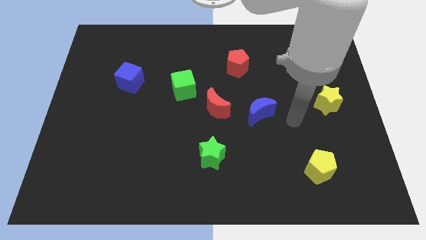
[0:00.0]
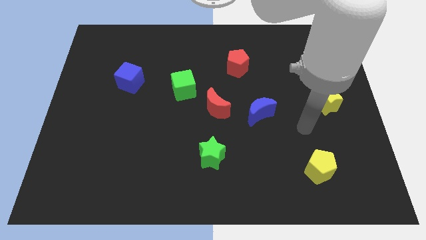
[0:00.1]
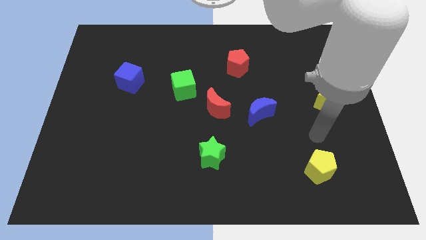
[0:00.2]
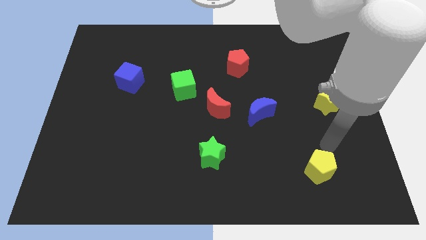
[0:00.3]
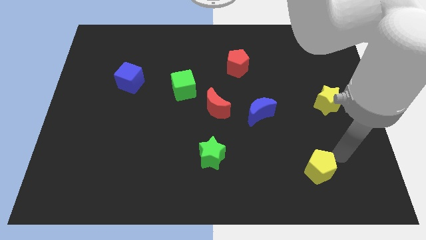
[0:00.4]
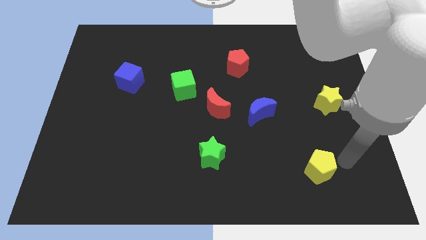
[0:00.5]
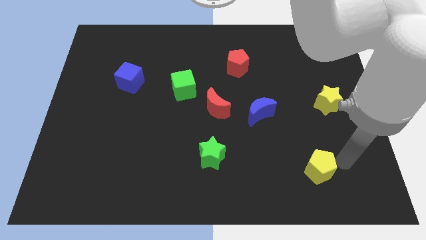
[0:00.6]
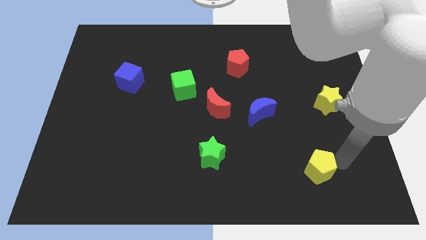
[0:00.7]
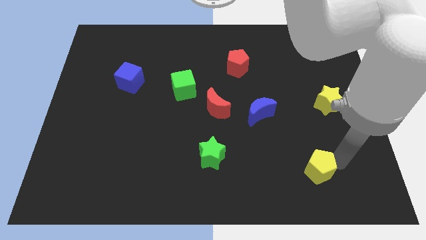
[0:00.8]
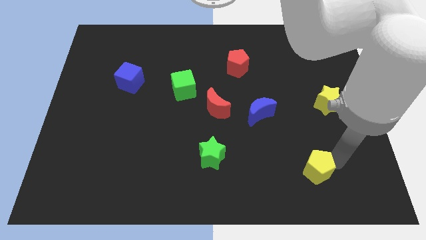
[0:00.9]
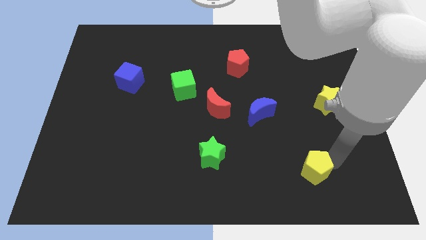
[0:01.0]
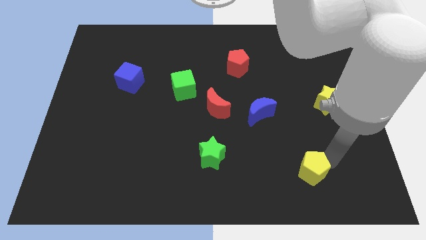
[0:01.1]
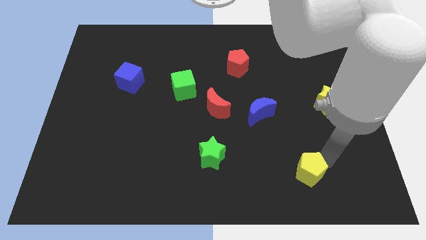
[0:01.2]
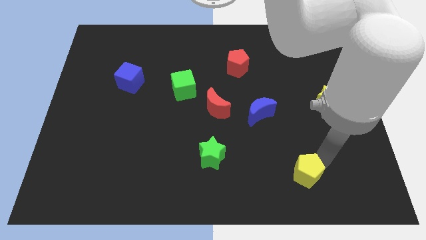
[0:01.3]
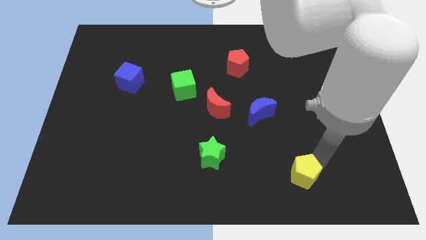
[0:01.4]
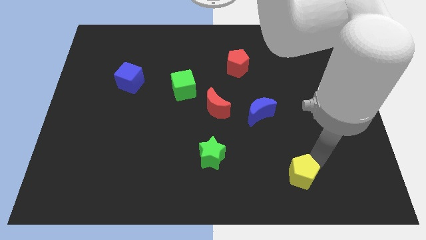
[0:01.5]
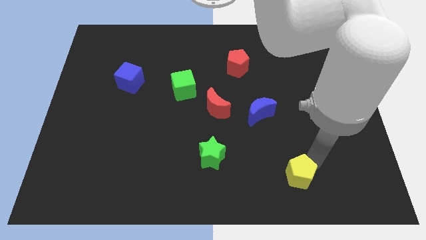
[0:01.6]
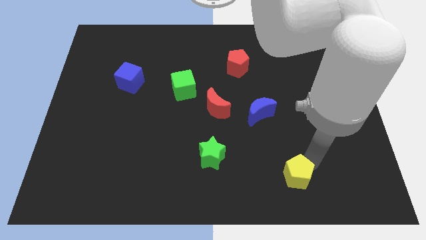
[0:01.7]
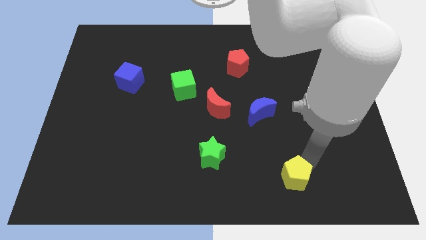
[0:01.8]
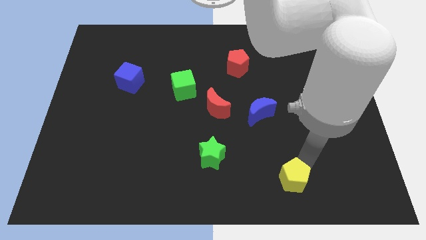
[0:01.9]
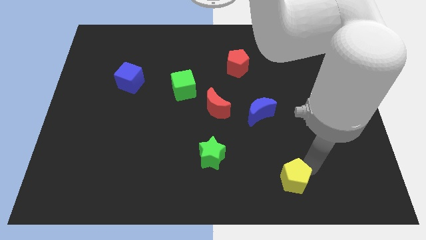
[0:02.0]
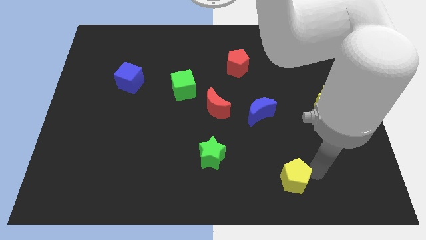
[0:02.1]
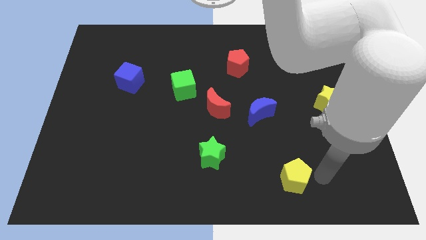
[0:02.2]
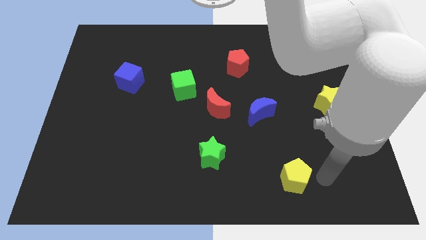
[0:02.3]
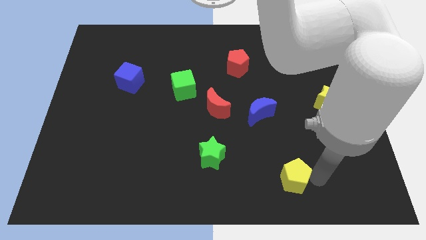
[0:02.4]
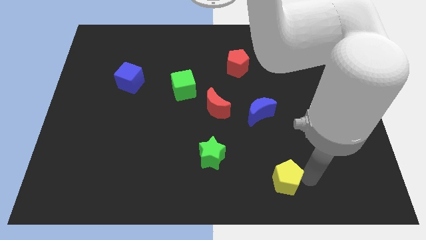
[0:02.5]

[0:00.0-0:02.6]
slide the yellow pentagon to the left slightly

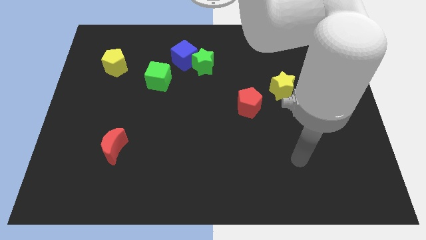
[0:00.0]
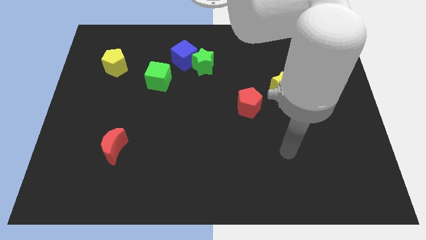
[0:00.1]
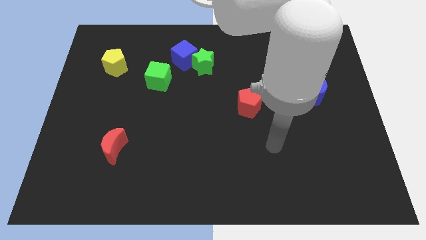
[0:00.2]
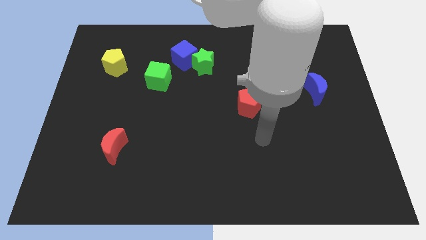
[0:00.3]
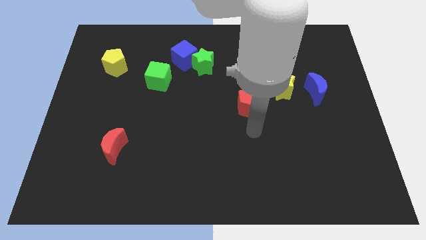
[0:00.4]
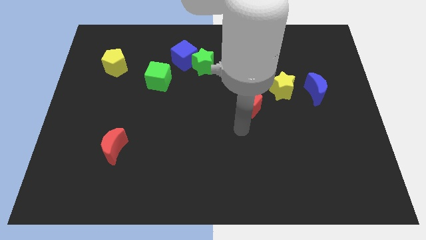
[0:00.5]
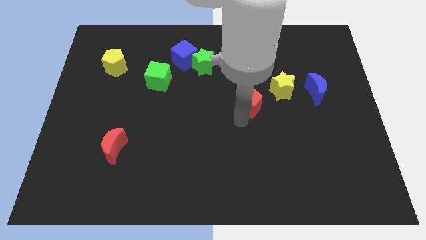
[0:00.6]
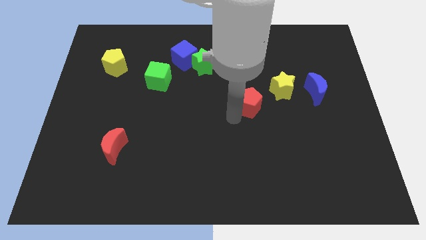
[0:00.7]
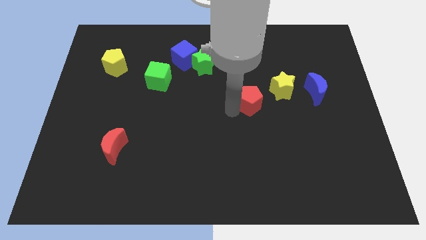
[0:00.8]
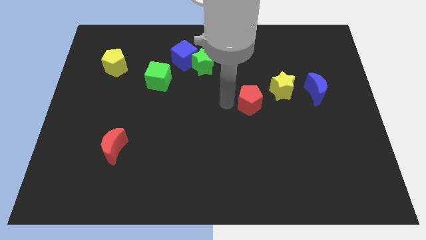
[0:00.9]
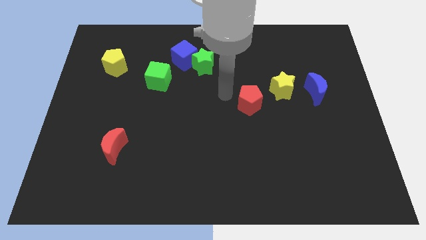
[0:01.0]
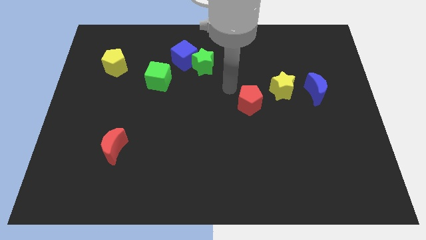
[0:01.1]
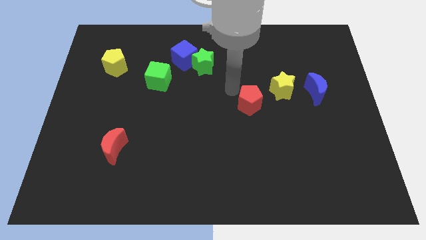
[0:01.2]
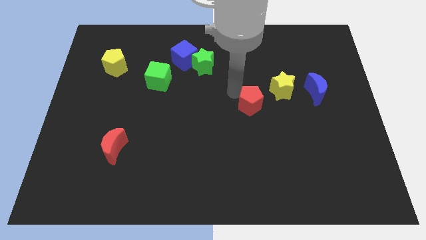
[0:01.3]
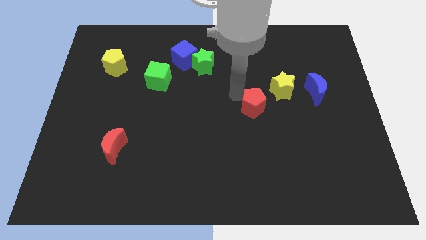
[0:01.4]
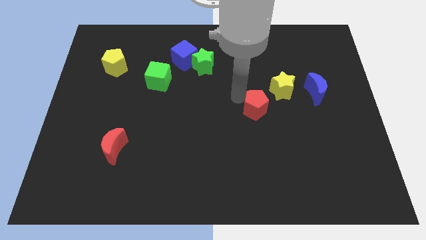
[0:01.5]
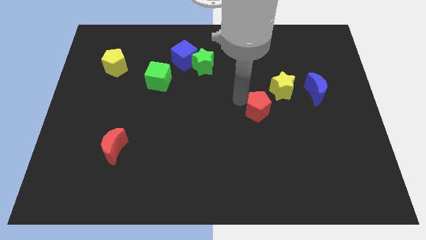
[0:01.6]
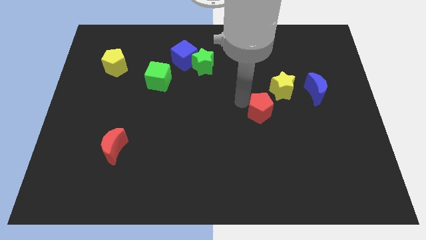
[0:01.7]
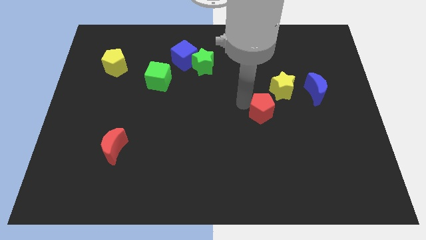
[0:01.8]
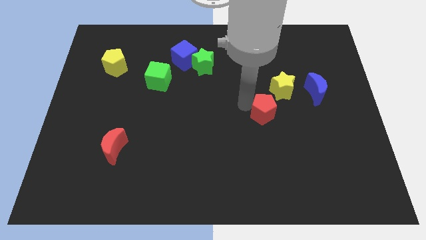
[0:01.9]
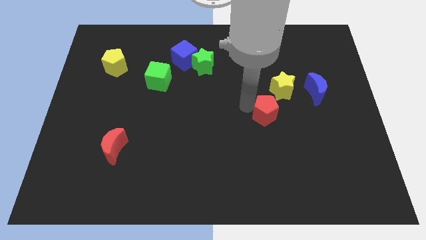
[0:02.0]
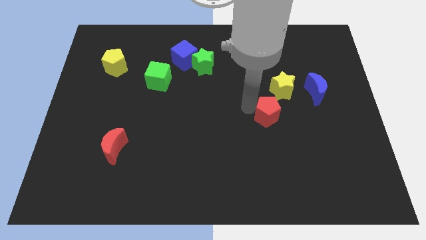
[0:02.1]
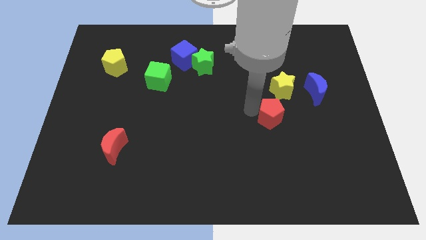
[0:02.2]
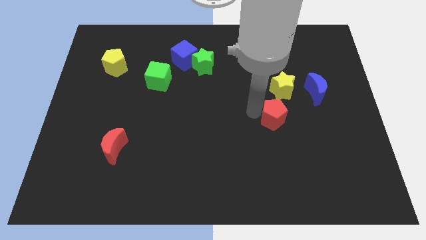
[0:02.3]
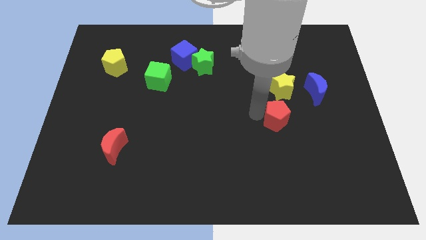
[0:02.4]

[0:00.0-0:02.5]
push the red pentagon a little bit diagonally downwards and right

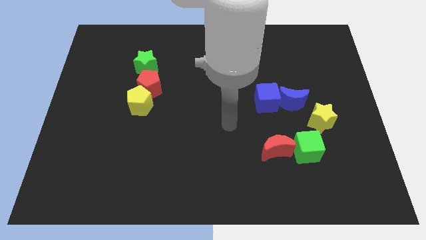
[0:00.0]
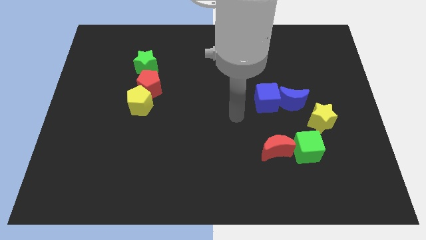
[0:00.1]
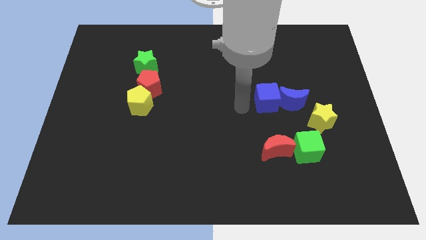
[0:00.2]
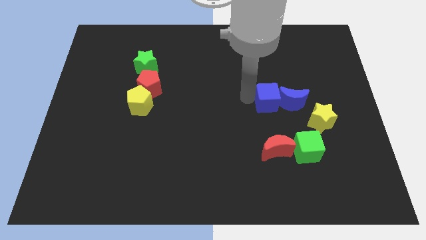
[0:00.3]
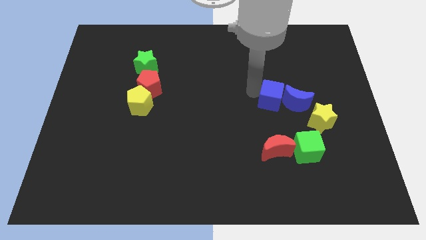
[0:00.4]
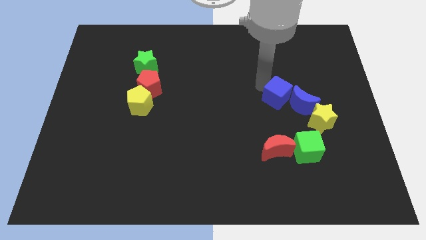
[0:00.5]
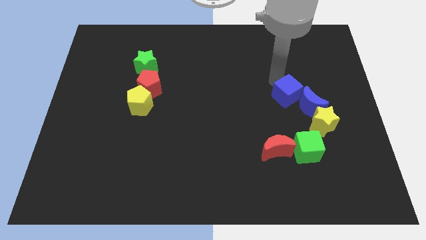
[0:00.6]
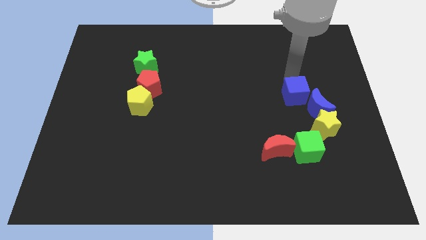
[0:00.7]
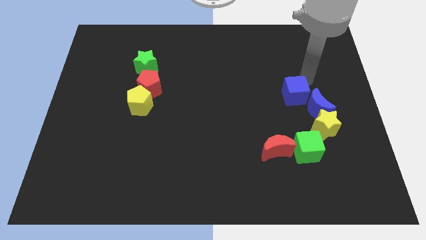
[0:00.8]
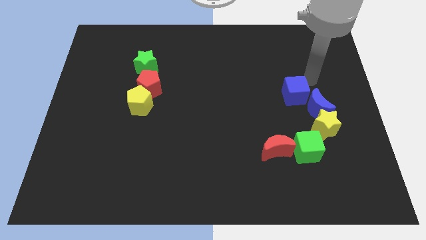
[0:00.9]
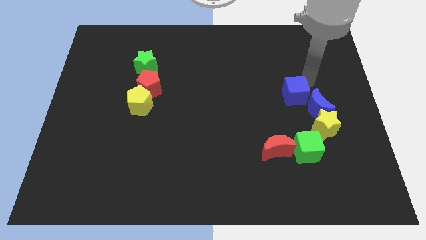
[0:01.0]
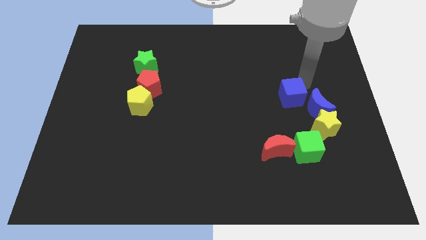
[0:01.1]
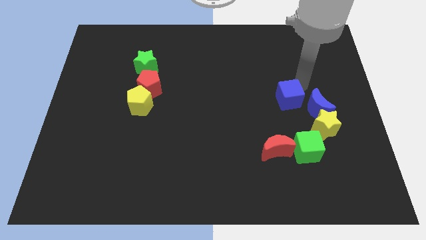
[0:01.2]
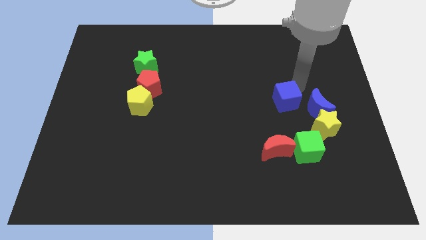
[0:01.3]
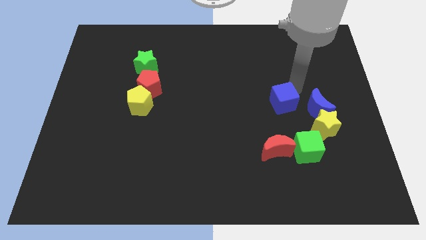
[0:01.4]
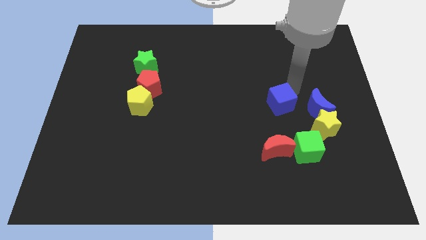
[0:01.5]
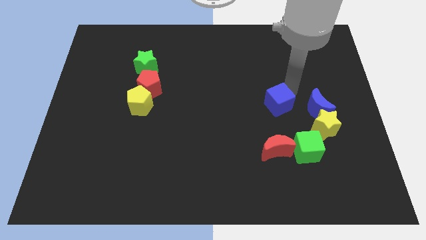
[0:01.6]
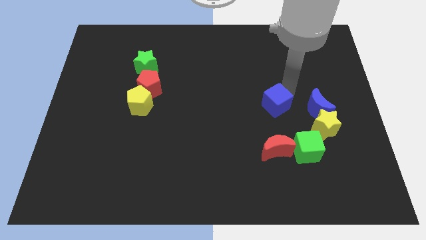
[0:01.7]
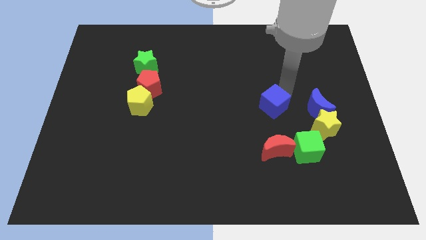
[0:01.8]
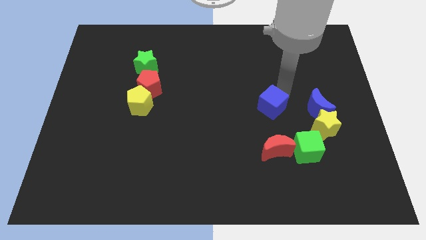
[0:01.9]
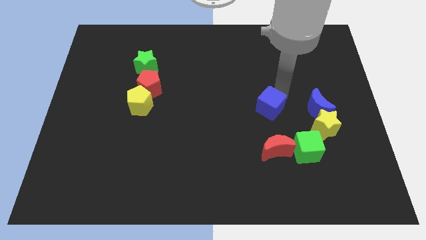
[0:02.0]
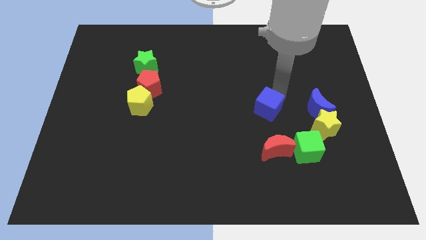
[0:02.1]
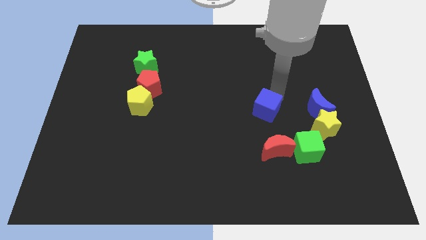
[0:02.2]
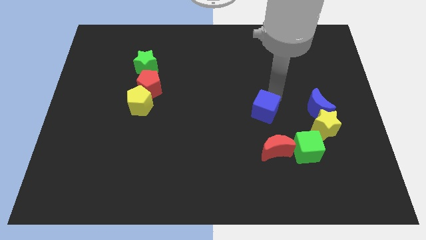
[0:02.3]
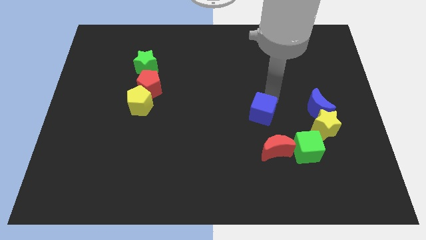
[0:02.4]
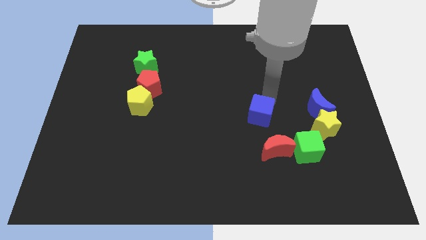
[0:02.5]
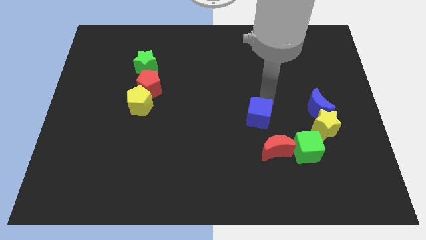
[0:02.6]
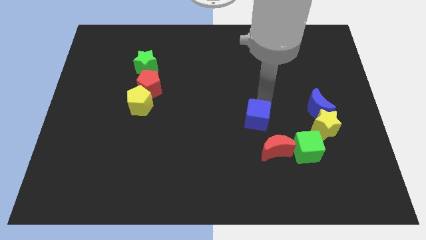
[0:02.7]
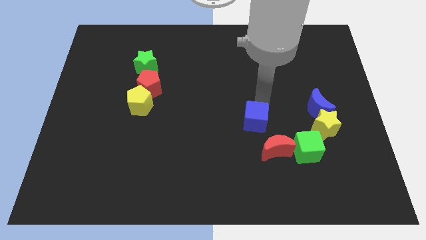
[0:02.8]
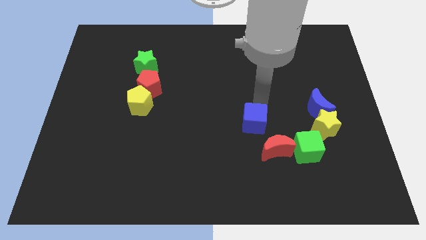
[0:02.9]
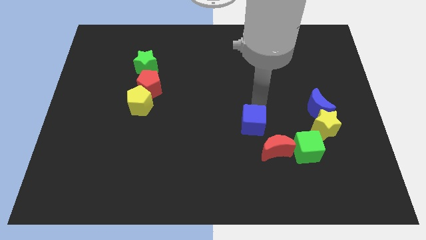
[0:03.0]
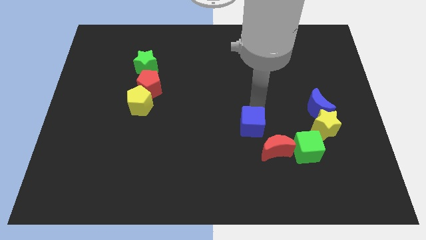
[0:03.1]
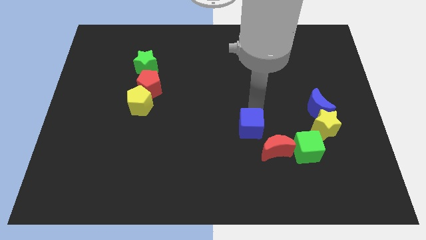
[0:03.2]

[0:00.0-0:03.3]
slightly slide the blue cube downwards
